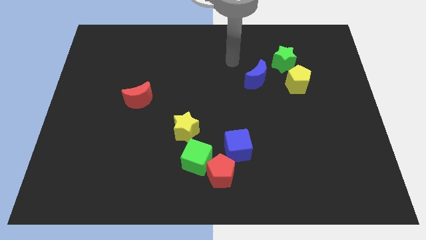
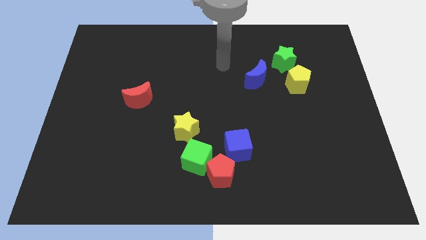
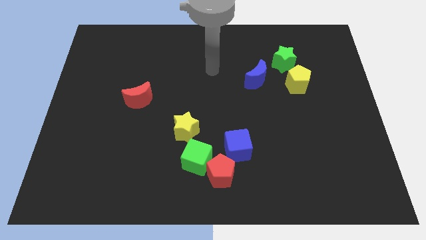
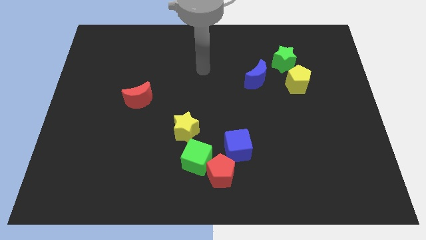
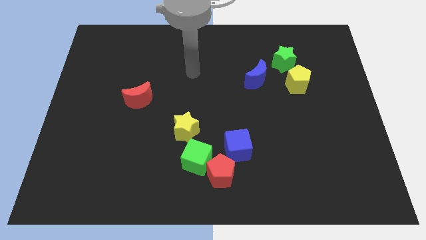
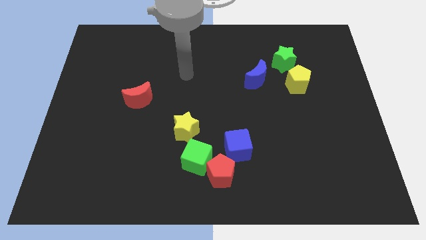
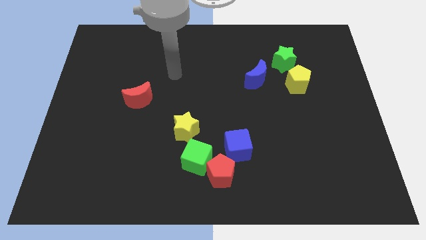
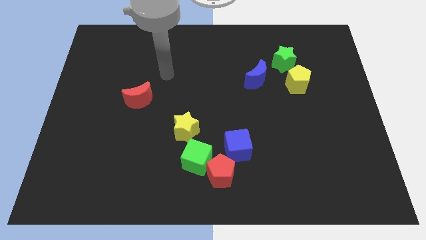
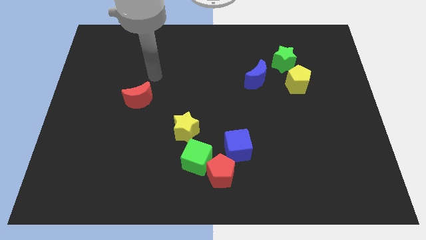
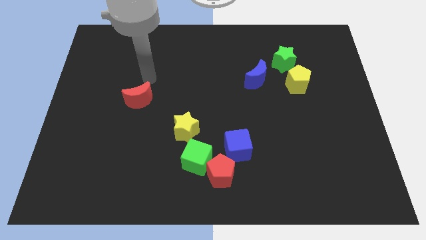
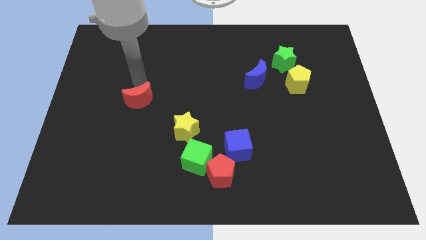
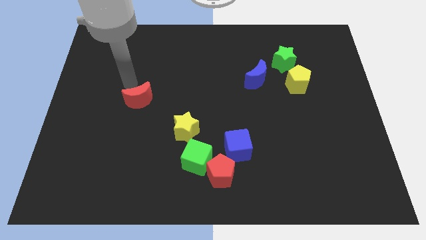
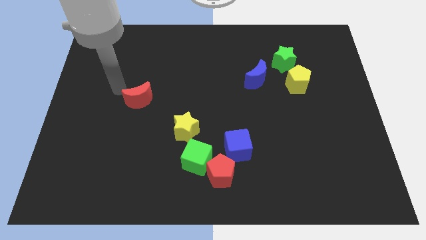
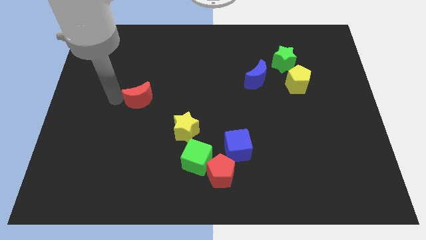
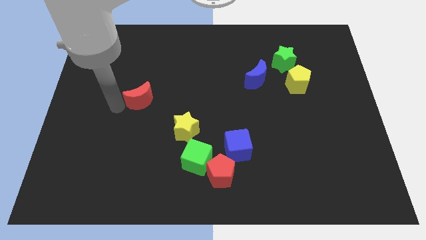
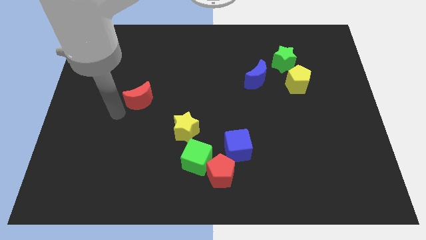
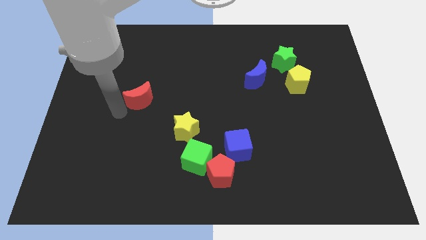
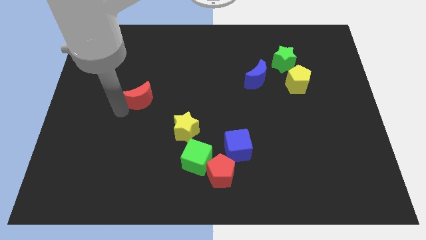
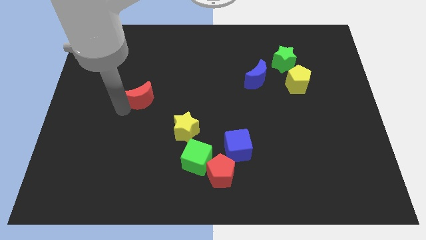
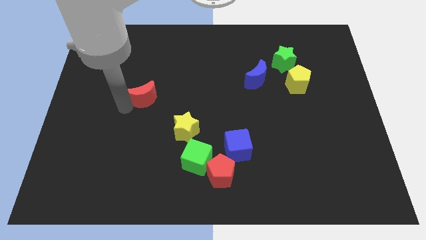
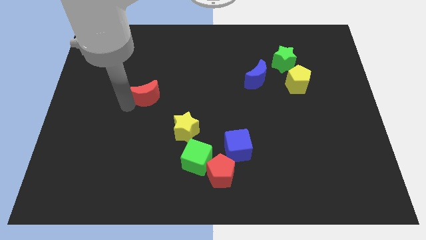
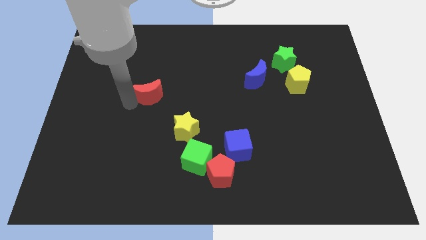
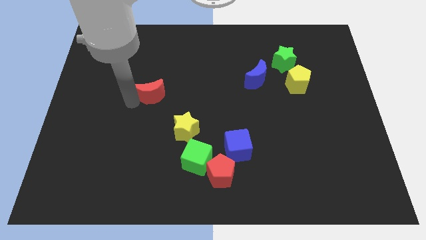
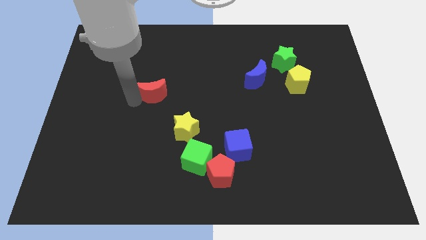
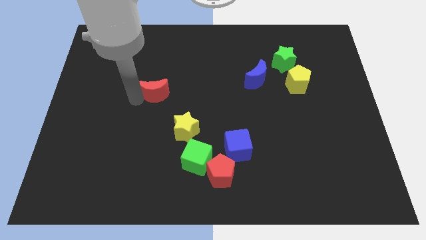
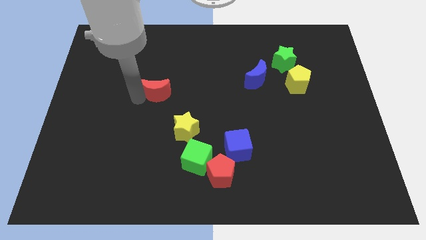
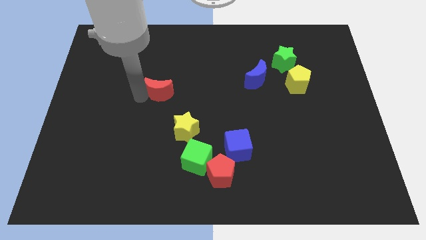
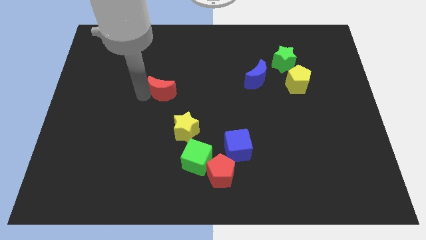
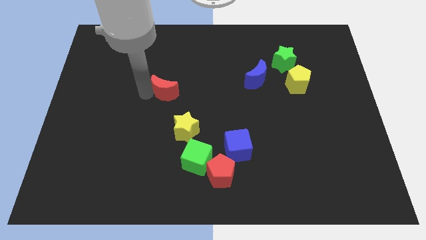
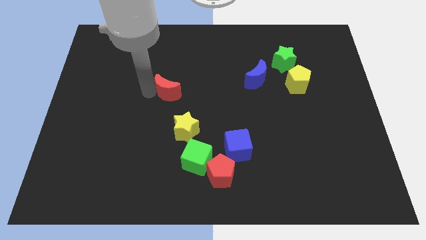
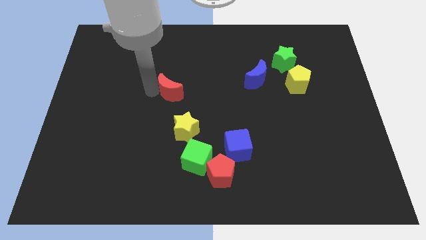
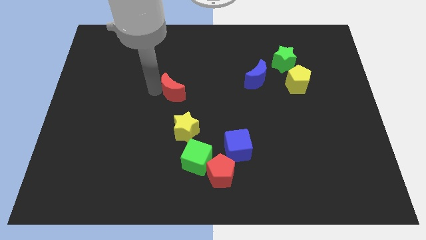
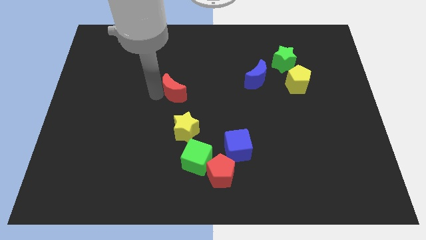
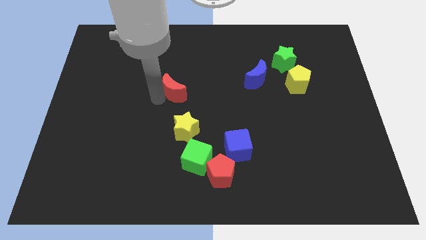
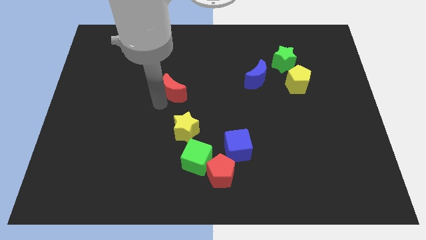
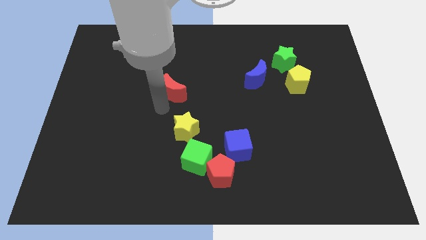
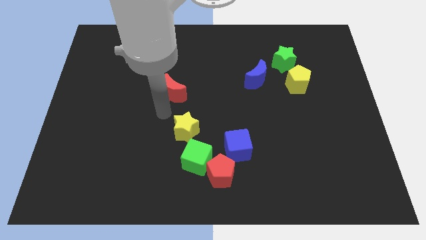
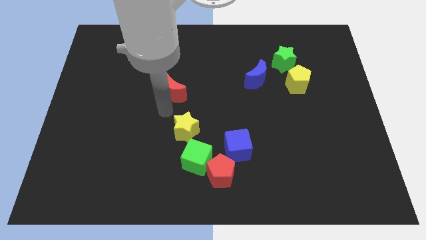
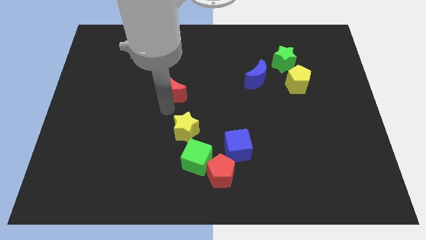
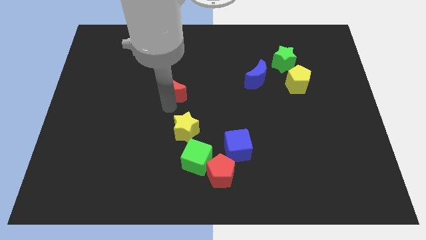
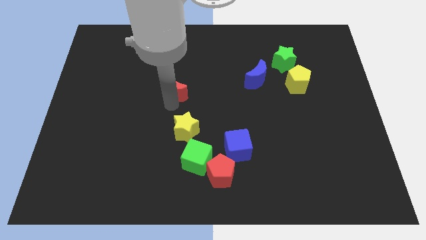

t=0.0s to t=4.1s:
slide the red moon a bit up and to the right

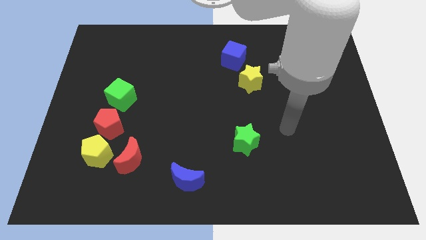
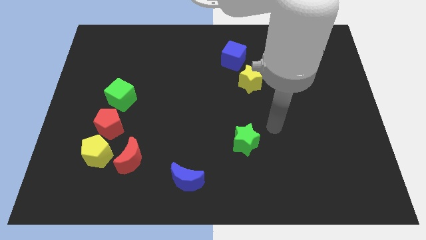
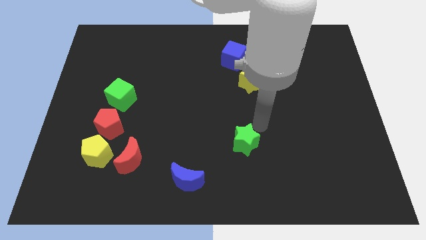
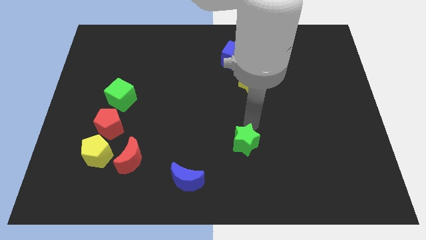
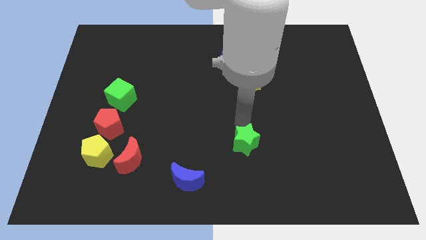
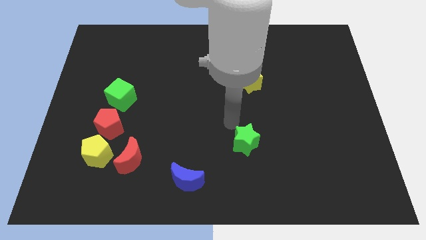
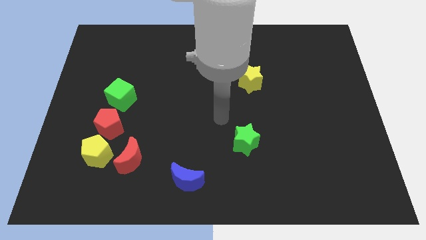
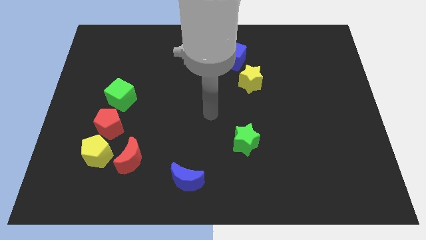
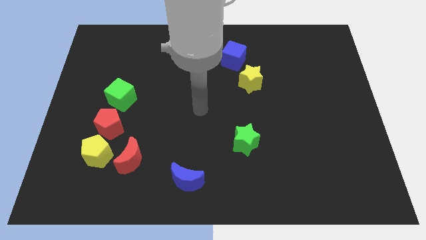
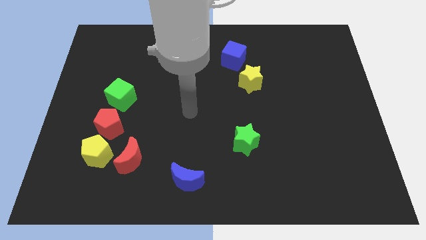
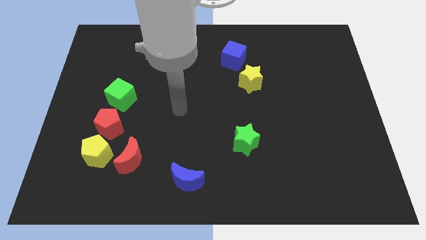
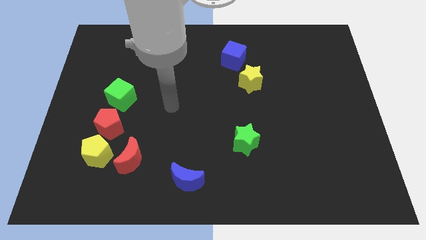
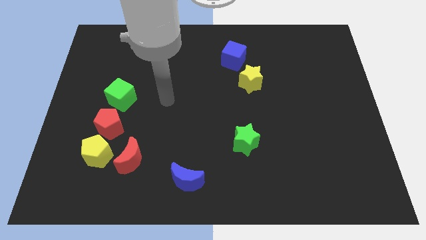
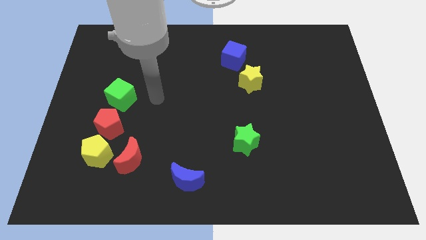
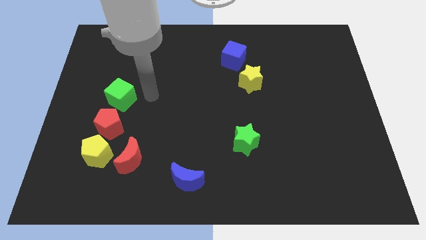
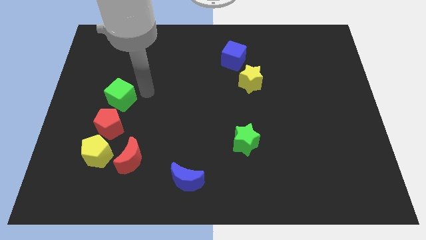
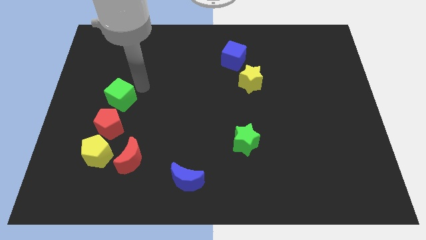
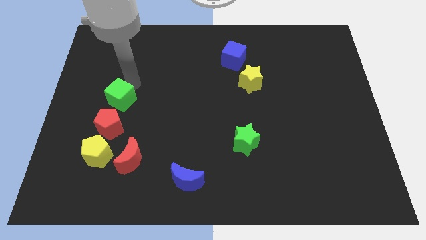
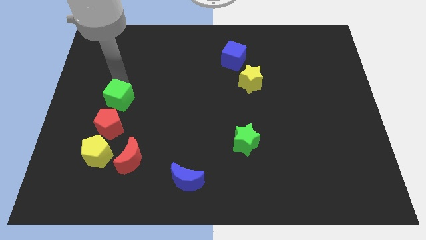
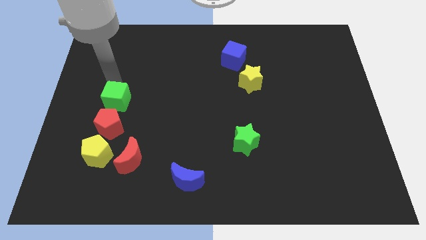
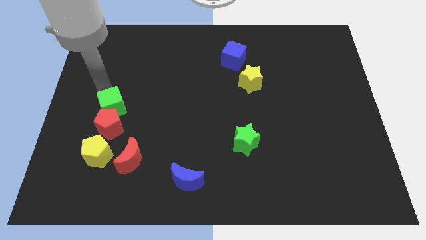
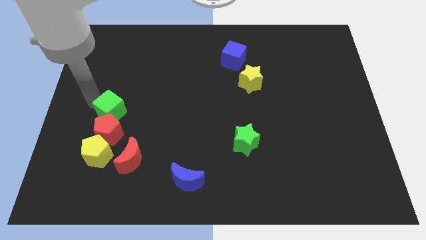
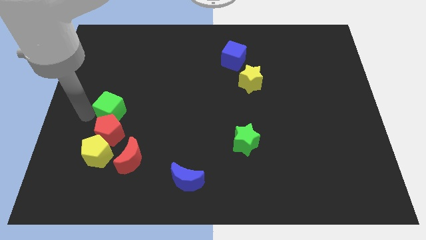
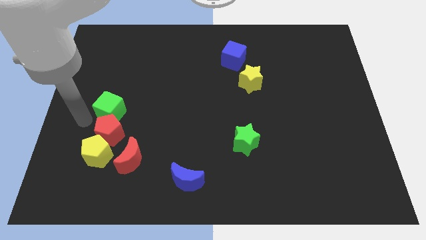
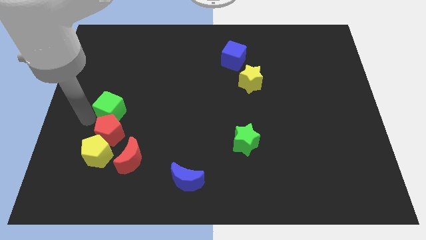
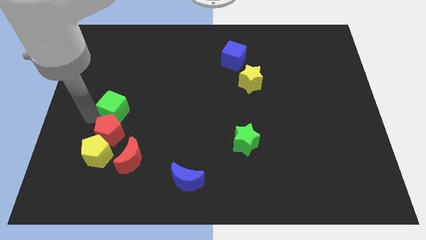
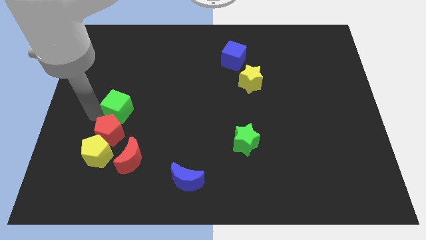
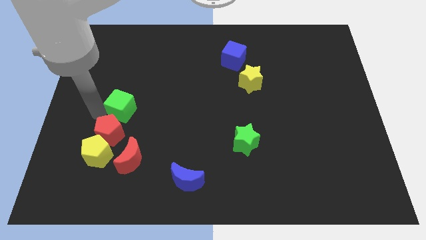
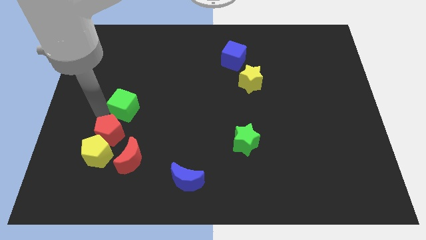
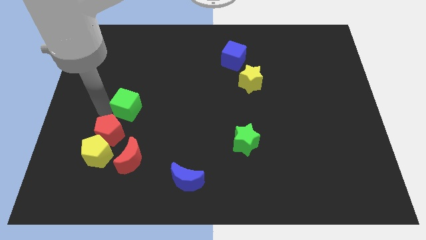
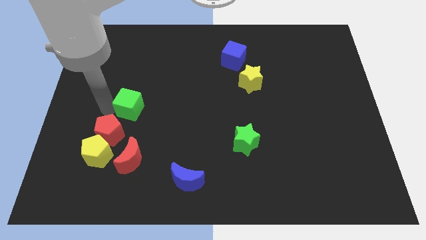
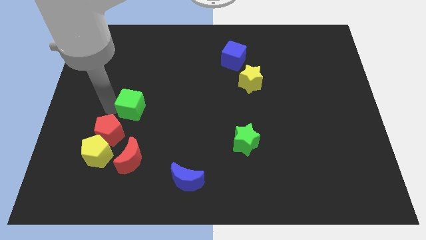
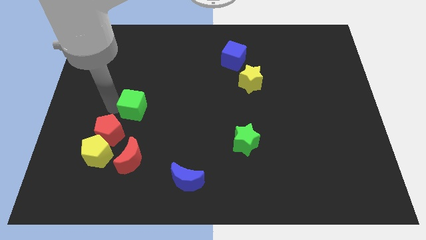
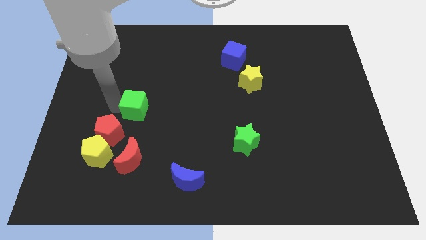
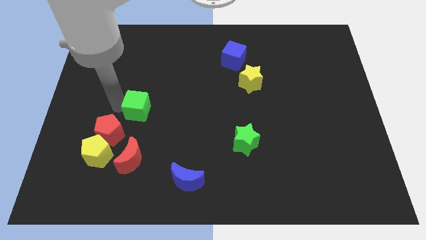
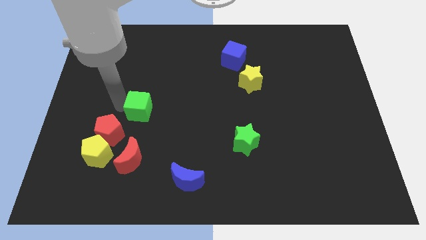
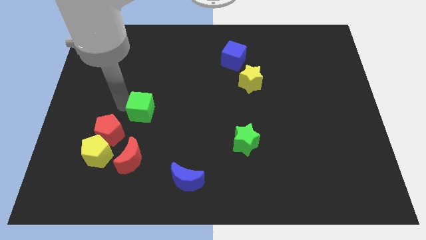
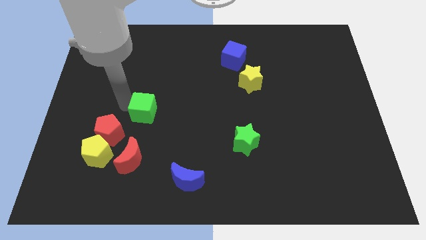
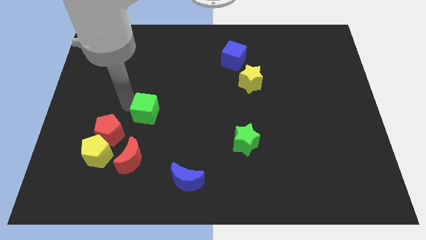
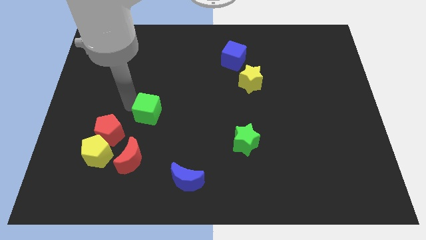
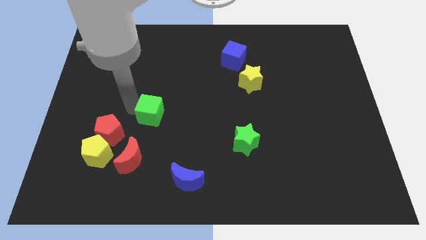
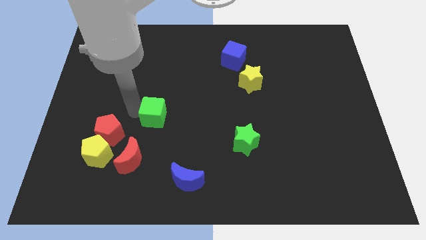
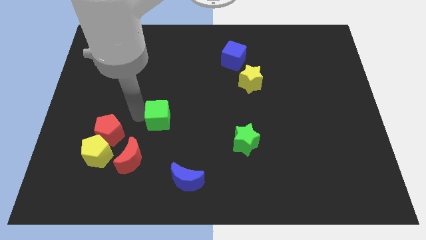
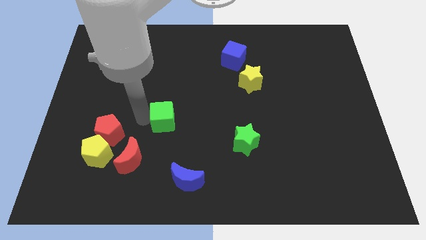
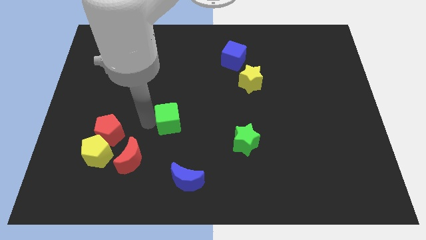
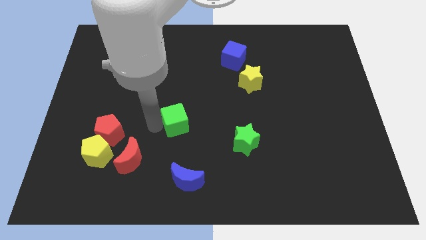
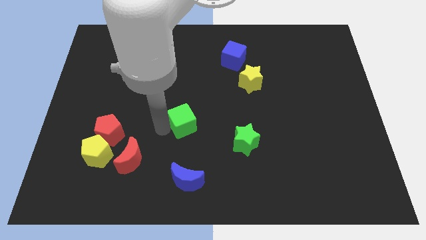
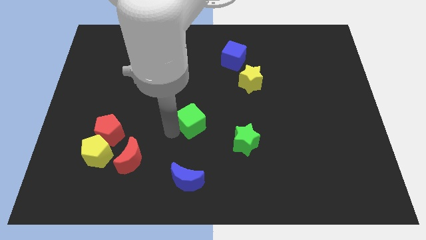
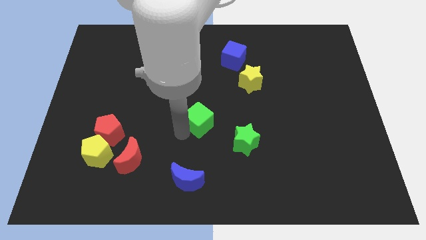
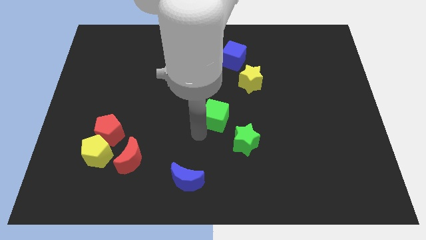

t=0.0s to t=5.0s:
move the green cube to the right
